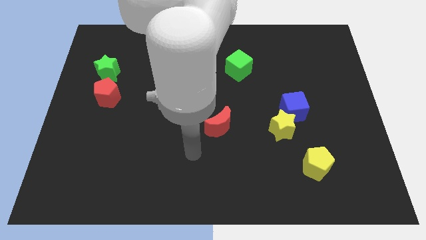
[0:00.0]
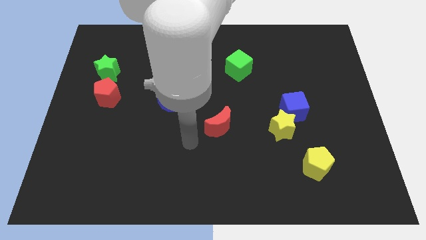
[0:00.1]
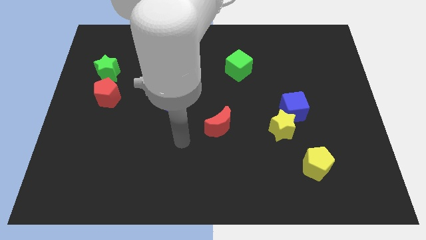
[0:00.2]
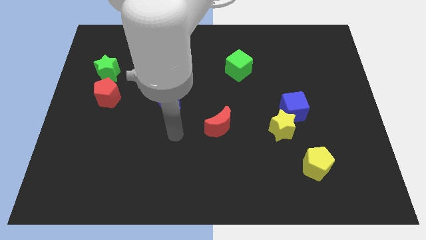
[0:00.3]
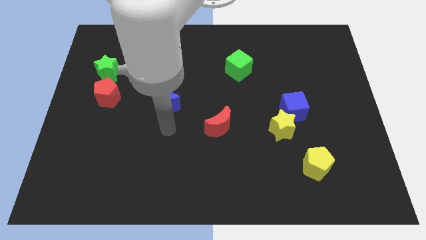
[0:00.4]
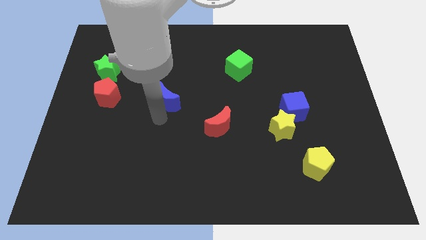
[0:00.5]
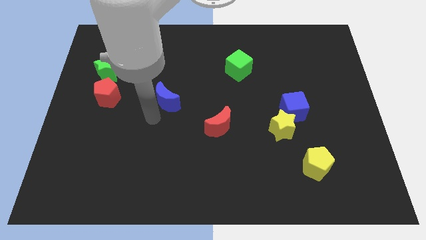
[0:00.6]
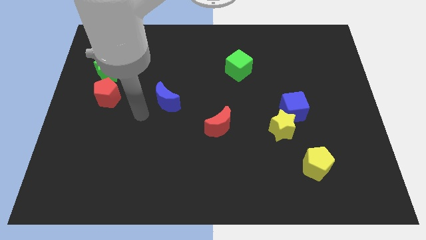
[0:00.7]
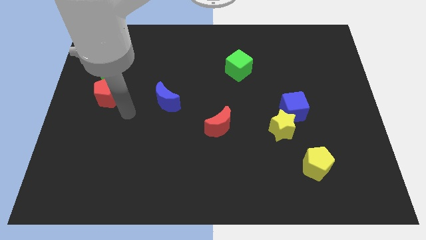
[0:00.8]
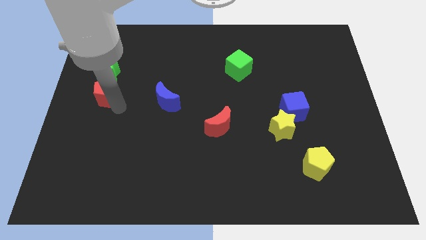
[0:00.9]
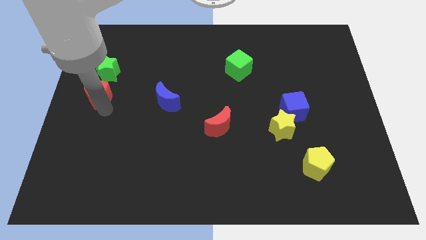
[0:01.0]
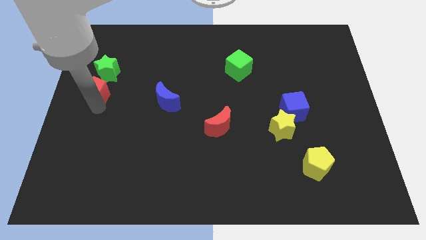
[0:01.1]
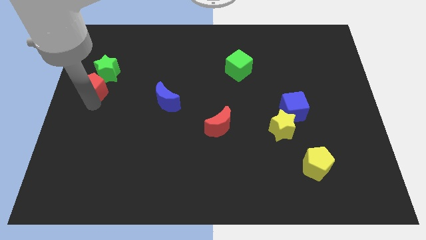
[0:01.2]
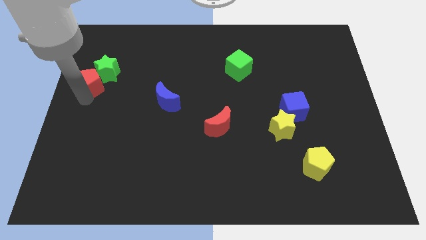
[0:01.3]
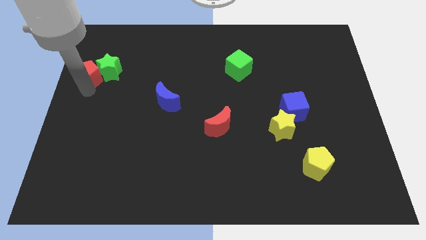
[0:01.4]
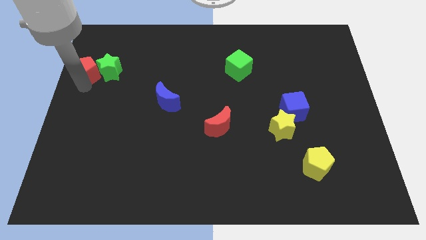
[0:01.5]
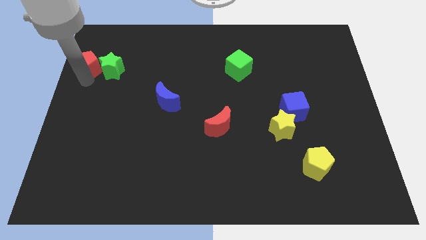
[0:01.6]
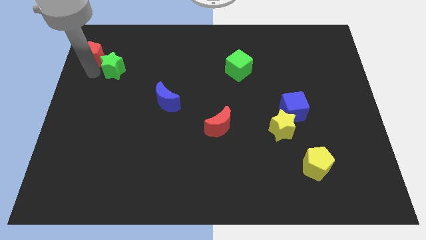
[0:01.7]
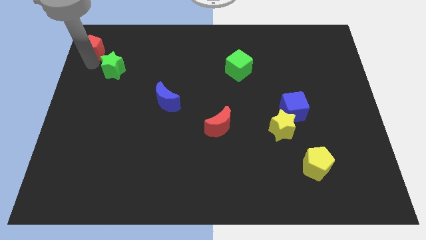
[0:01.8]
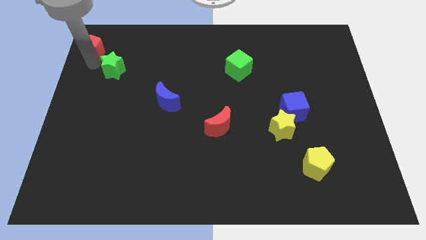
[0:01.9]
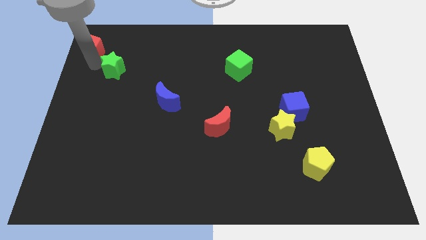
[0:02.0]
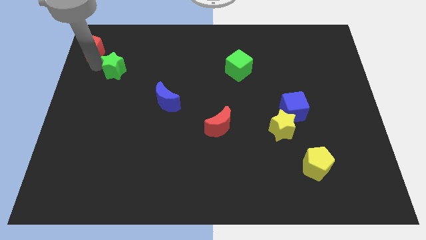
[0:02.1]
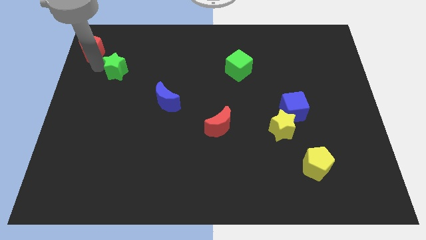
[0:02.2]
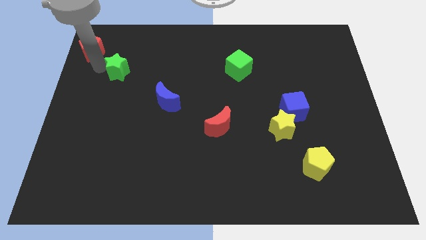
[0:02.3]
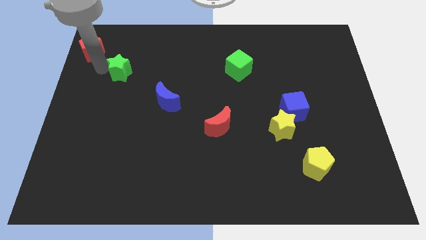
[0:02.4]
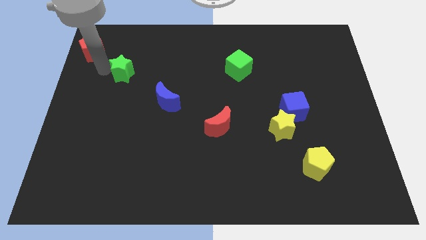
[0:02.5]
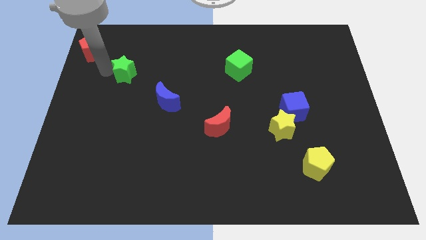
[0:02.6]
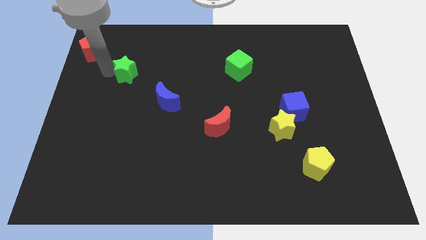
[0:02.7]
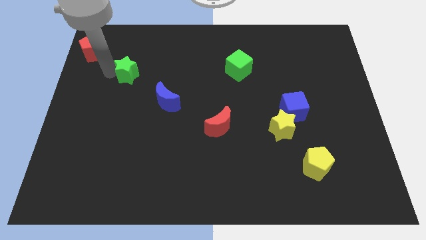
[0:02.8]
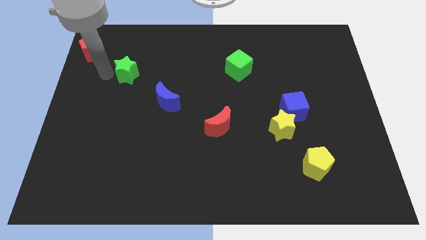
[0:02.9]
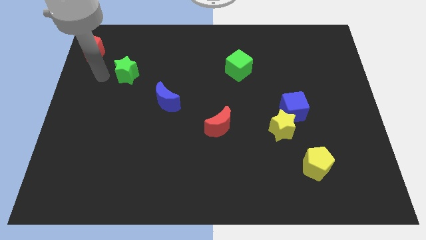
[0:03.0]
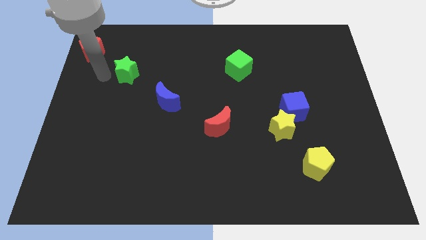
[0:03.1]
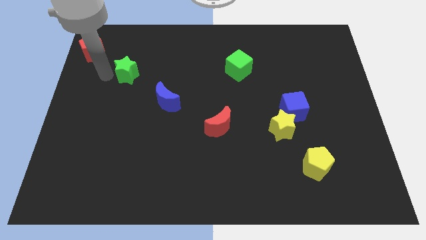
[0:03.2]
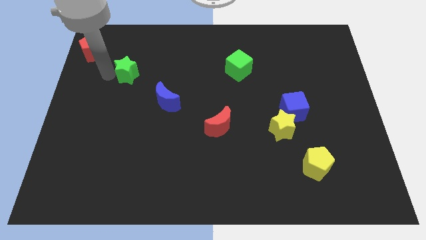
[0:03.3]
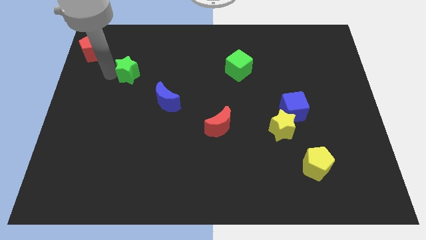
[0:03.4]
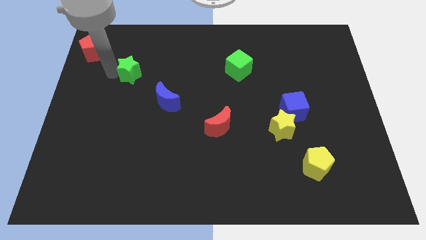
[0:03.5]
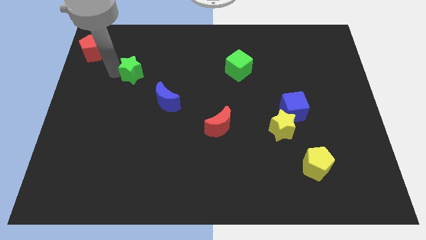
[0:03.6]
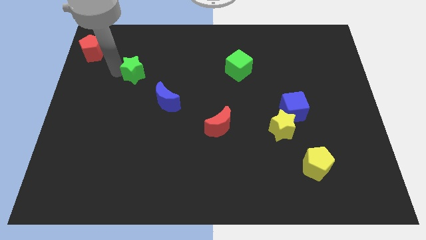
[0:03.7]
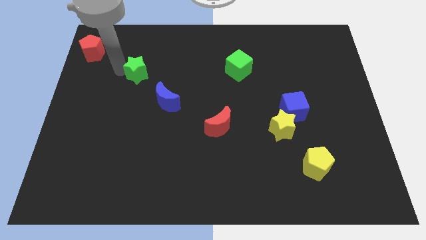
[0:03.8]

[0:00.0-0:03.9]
push the green star to the right somewhat

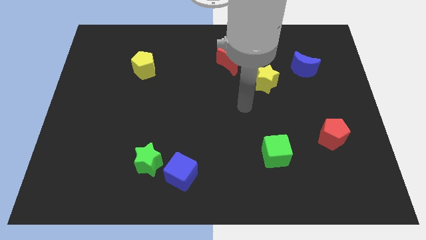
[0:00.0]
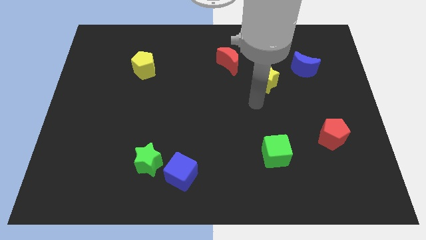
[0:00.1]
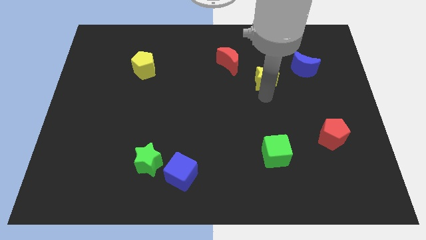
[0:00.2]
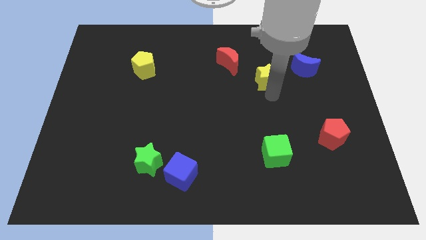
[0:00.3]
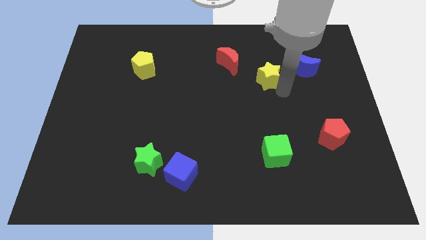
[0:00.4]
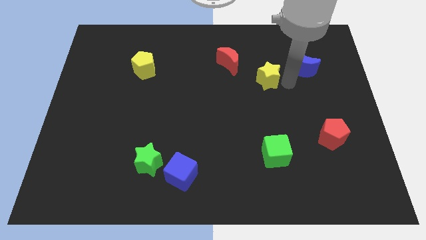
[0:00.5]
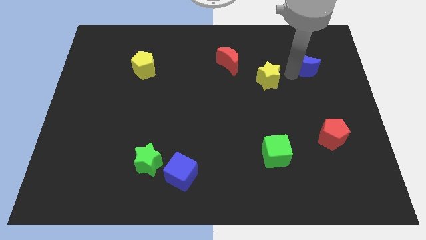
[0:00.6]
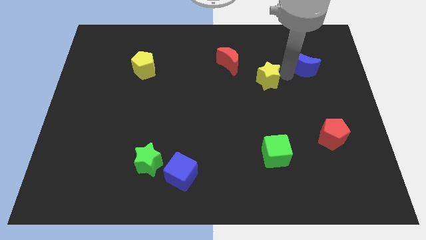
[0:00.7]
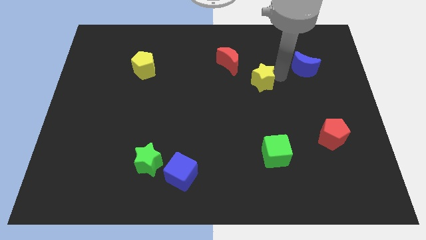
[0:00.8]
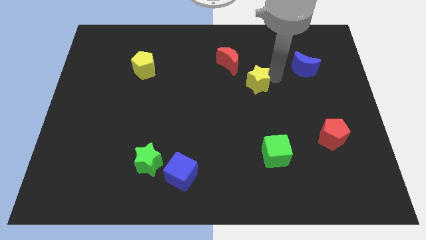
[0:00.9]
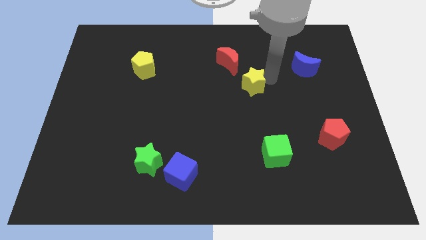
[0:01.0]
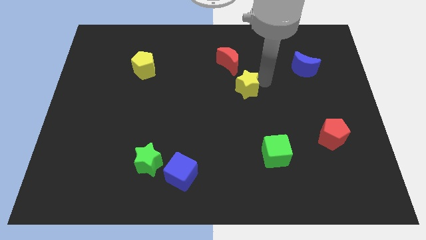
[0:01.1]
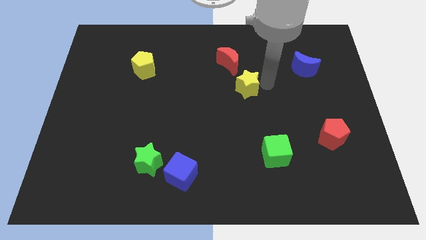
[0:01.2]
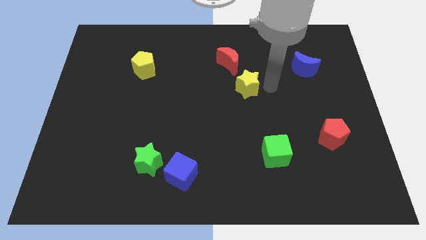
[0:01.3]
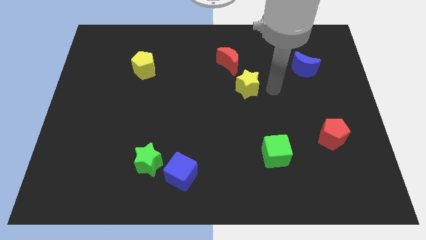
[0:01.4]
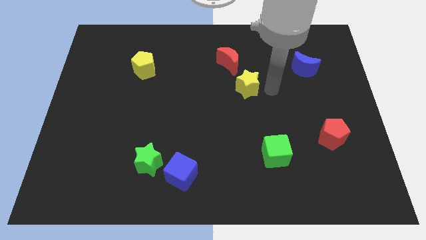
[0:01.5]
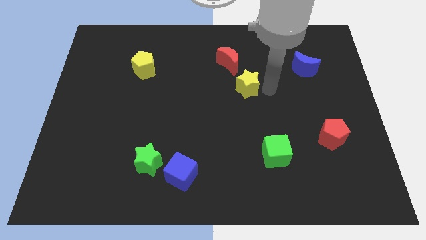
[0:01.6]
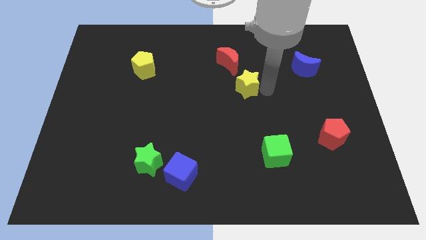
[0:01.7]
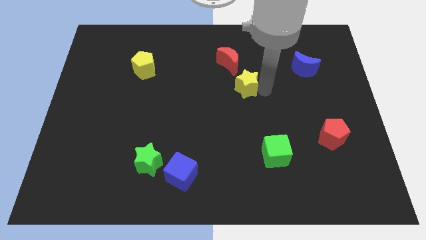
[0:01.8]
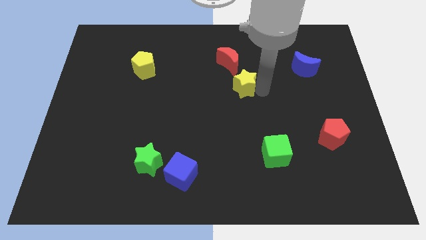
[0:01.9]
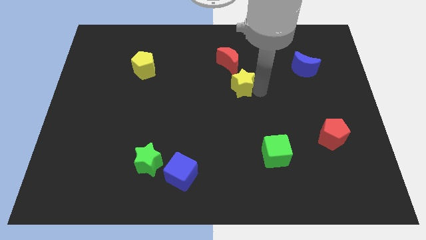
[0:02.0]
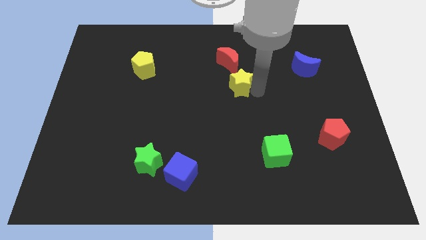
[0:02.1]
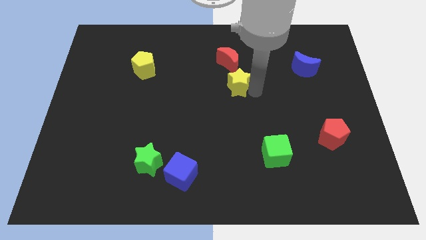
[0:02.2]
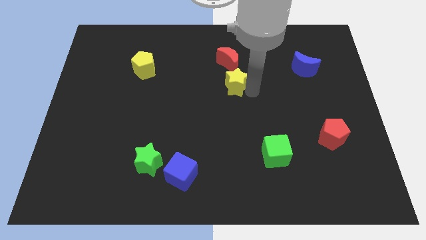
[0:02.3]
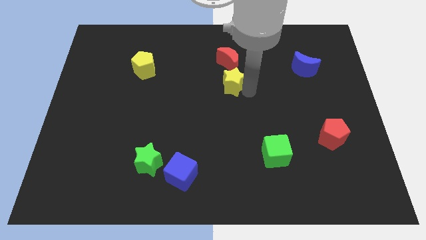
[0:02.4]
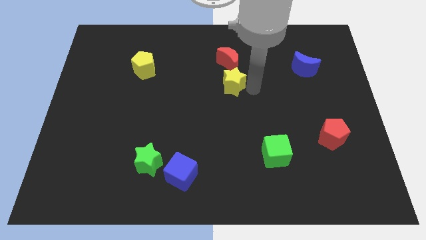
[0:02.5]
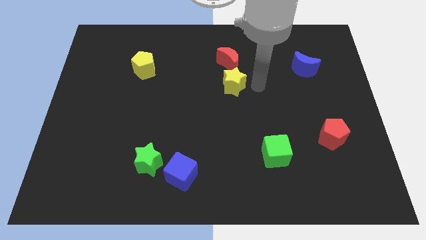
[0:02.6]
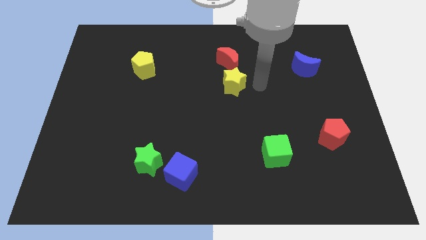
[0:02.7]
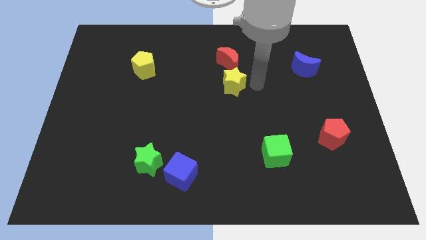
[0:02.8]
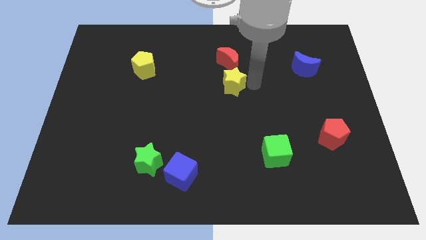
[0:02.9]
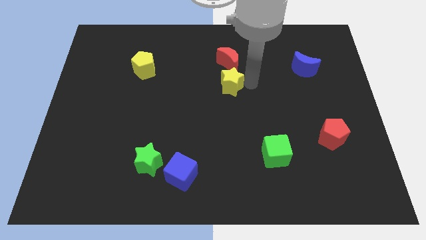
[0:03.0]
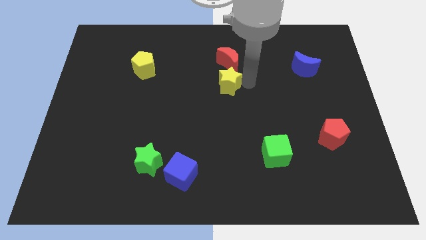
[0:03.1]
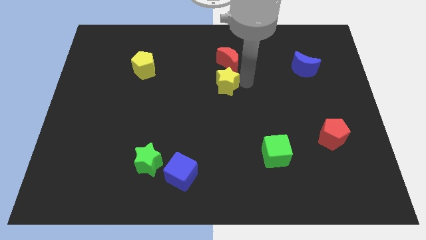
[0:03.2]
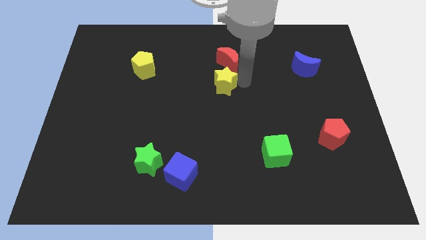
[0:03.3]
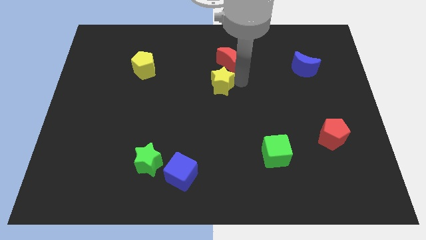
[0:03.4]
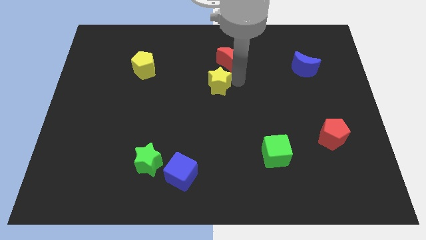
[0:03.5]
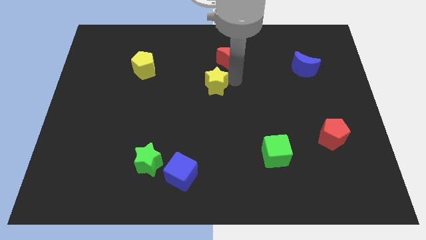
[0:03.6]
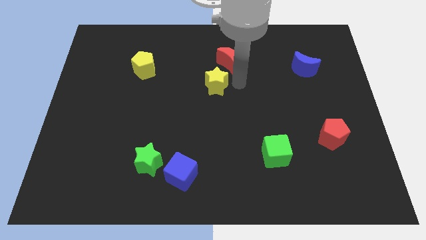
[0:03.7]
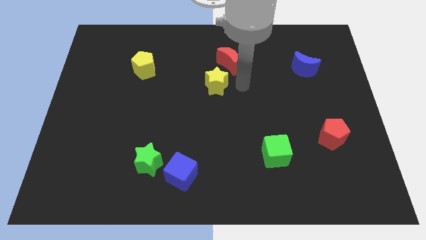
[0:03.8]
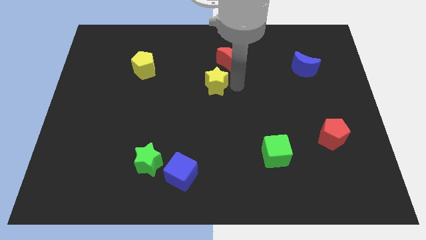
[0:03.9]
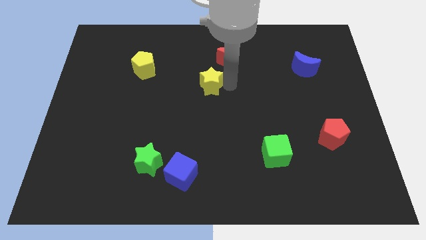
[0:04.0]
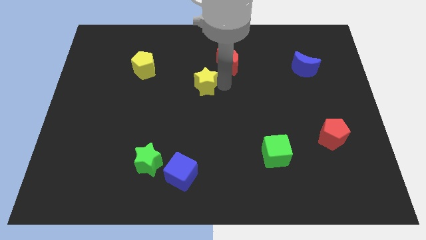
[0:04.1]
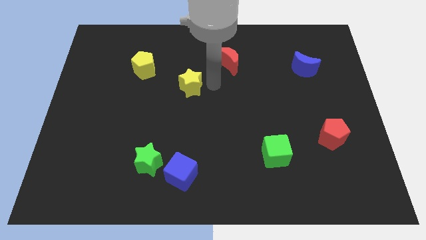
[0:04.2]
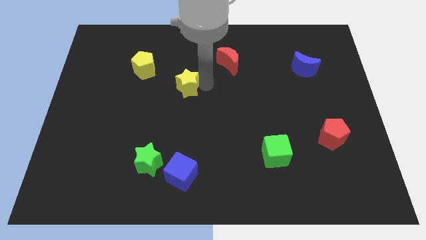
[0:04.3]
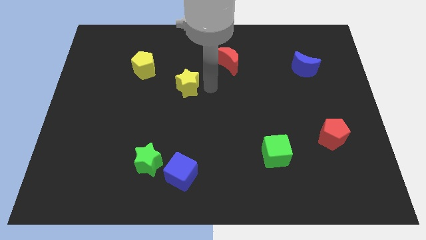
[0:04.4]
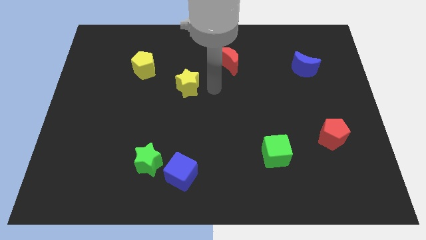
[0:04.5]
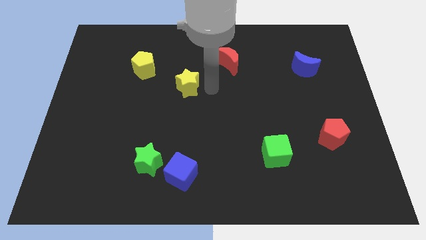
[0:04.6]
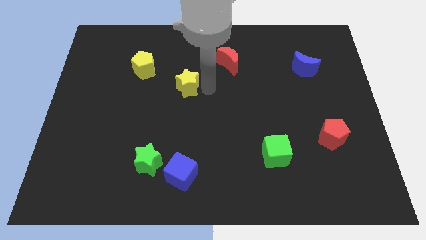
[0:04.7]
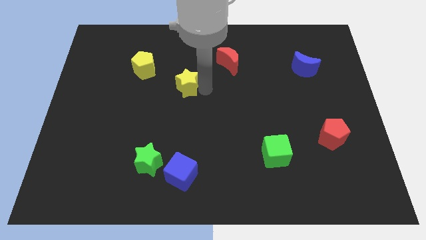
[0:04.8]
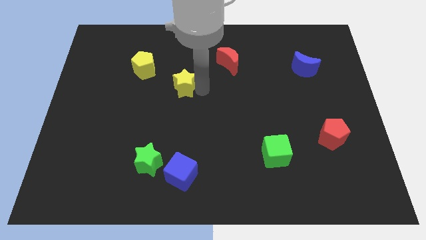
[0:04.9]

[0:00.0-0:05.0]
push the yellow star left
